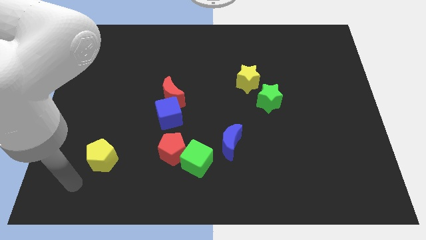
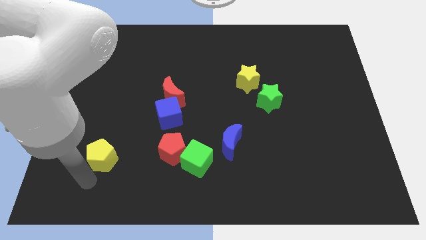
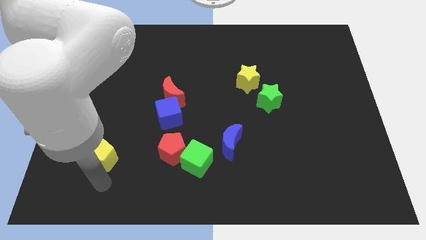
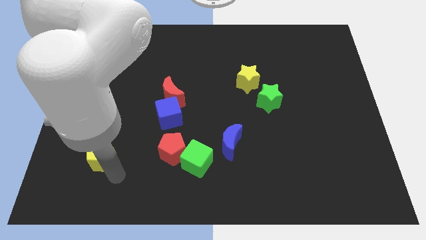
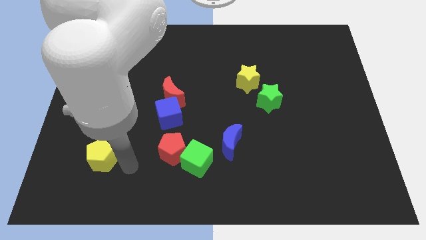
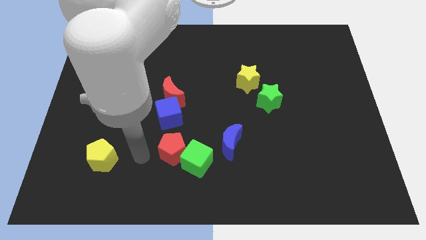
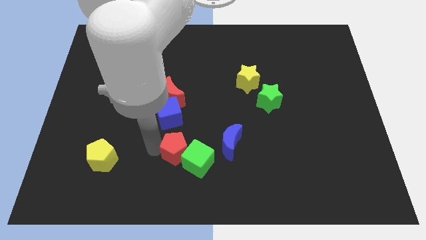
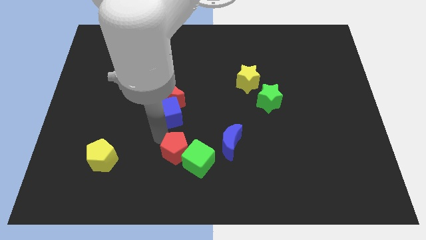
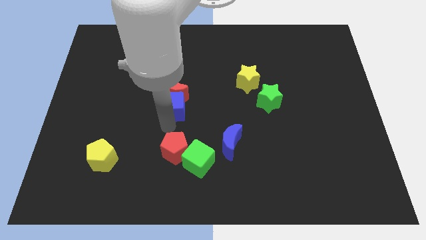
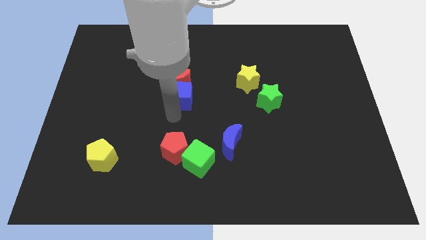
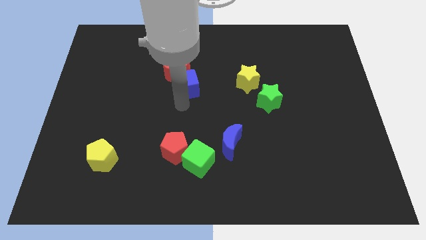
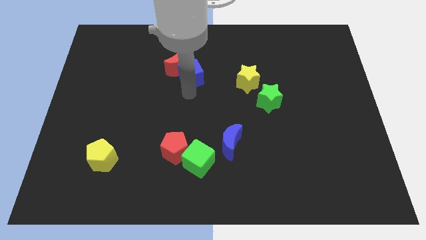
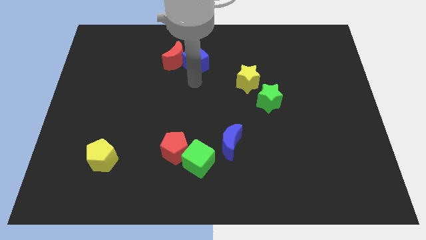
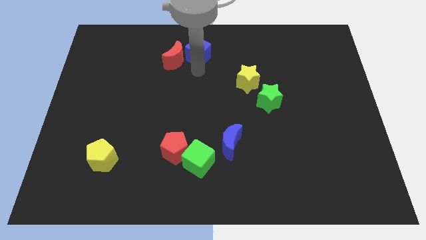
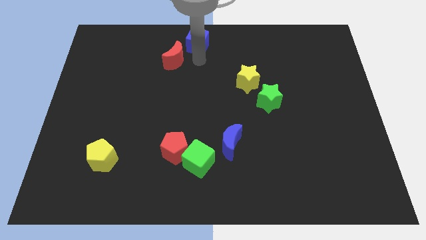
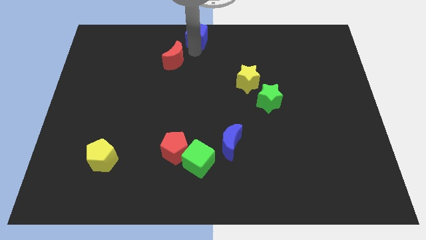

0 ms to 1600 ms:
pull the red moon apart from the blue cube

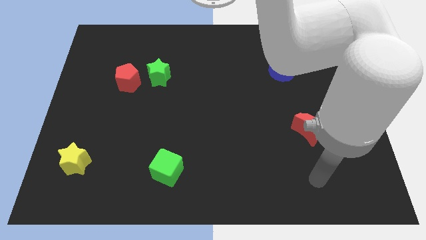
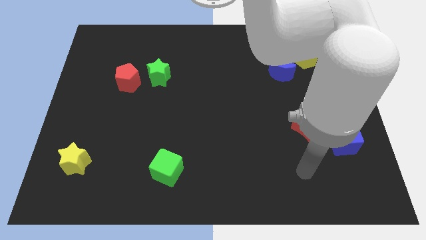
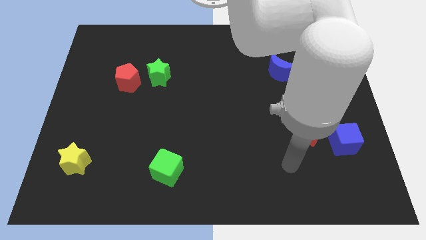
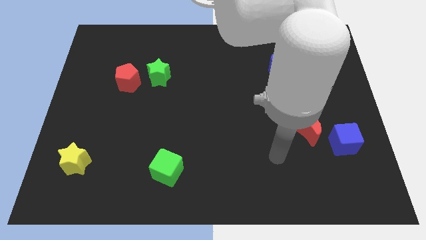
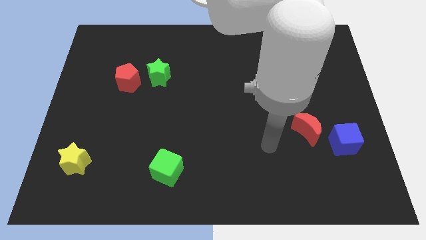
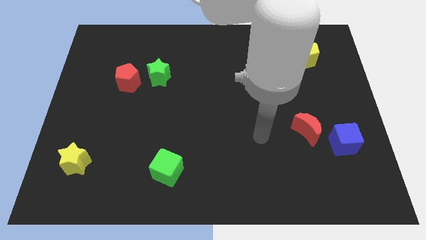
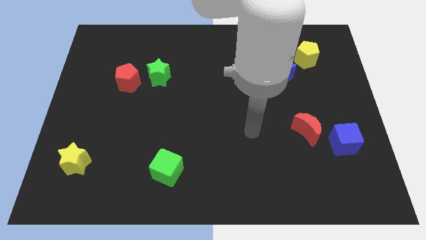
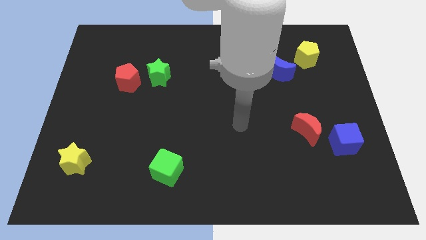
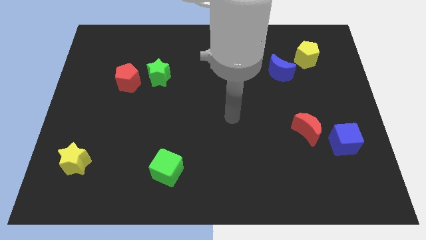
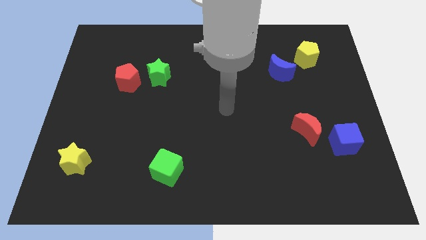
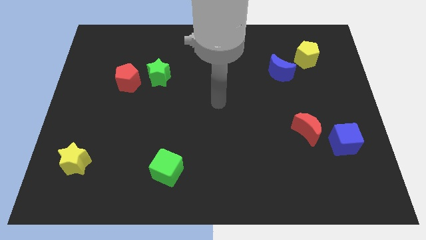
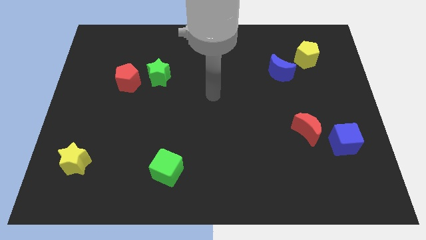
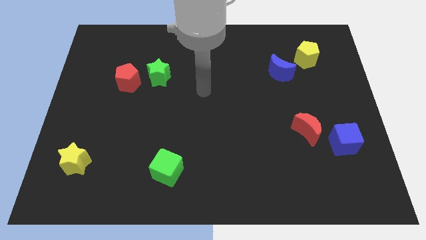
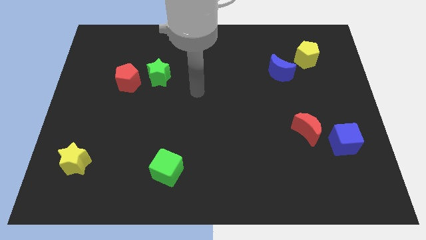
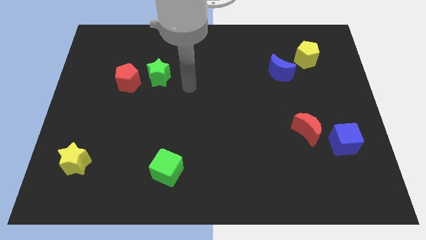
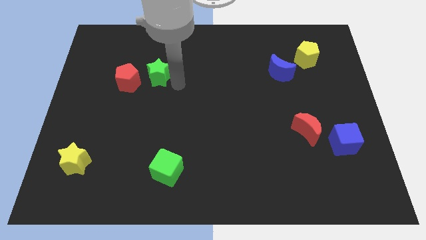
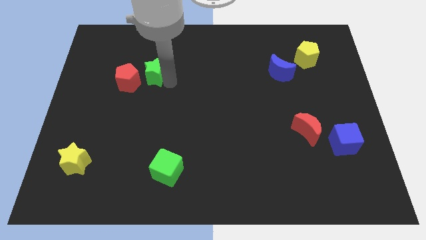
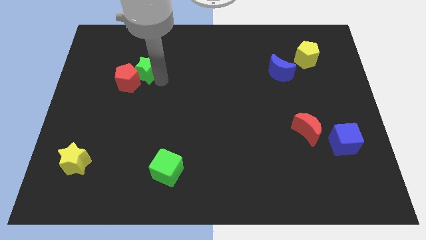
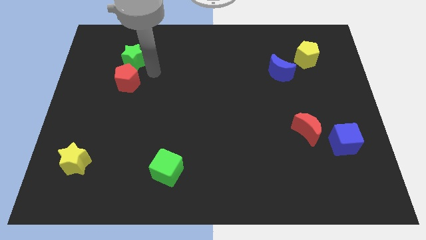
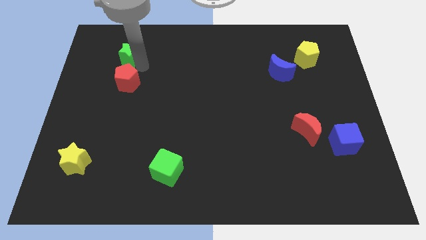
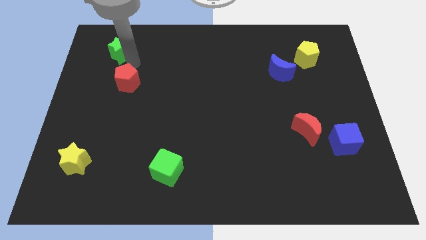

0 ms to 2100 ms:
move the red pentagon away from the green star

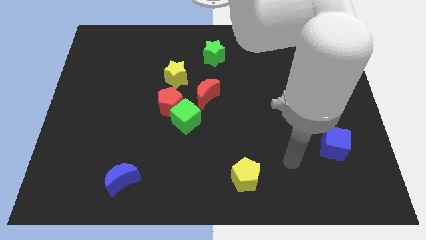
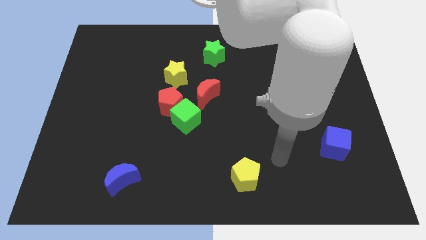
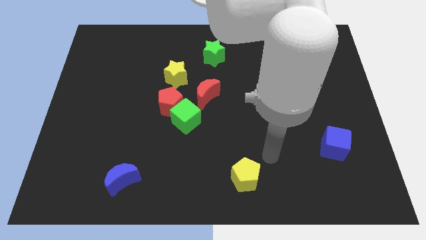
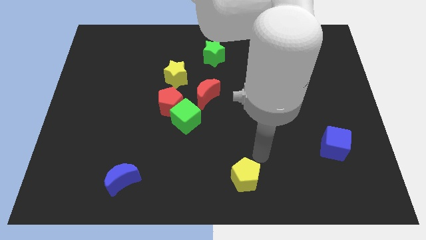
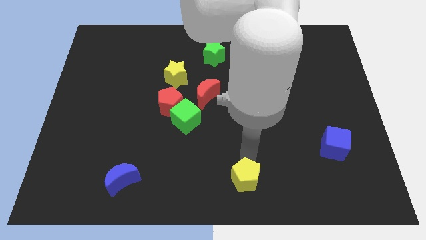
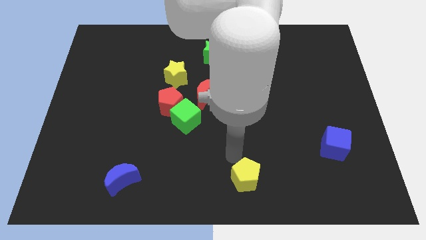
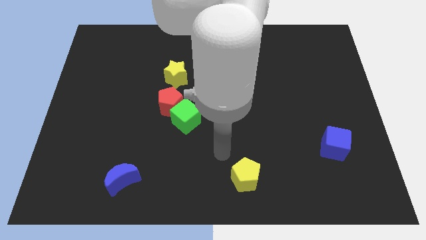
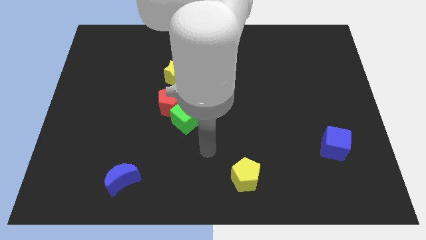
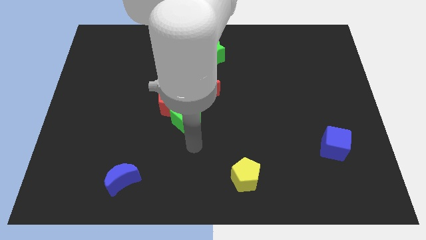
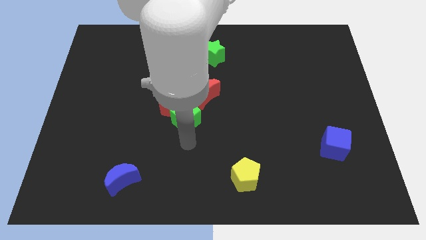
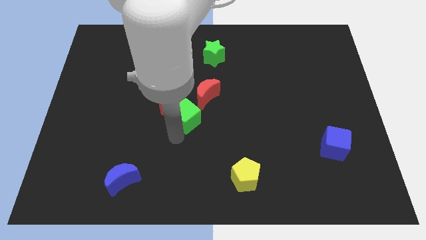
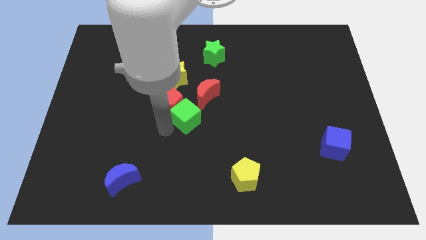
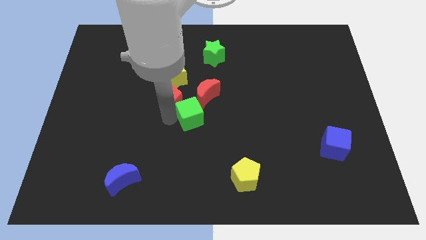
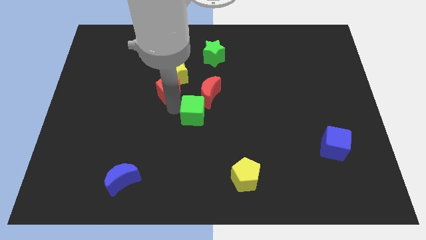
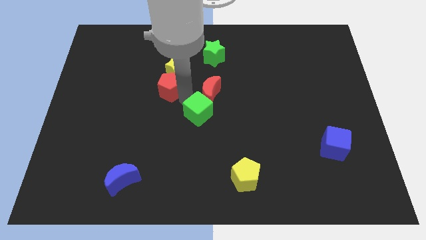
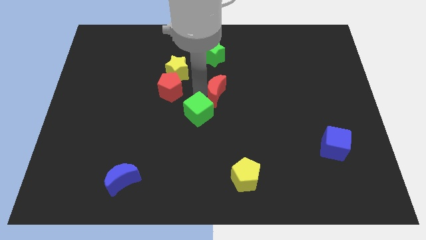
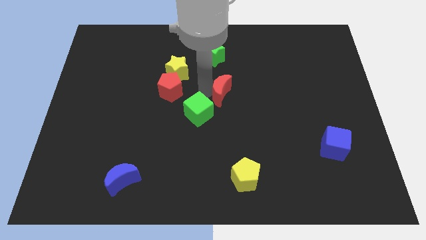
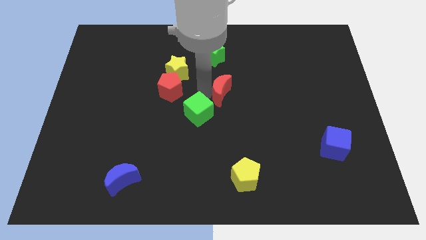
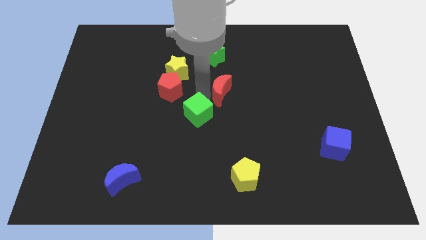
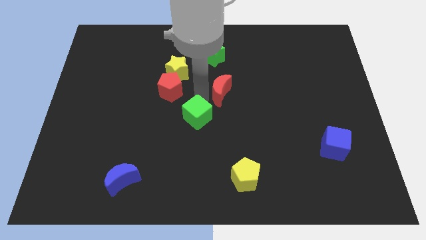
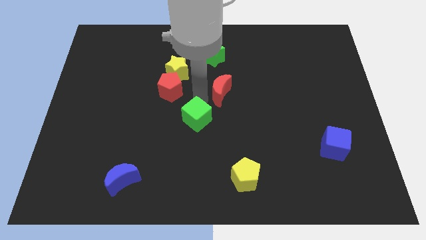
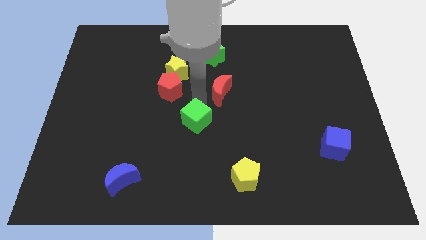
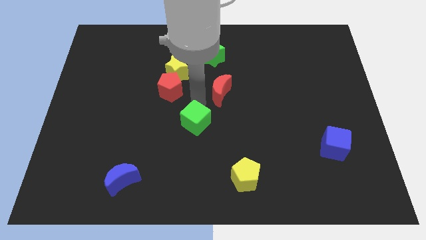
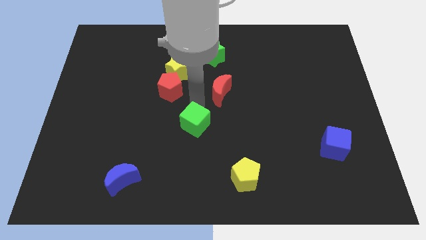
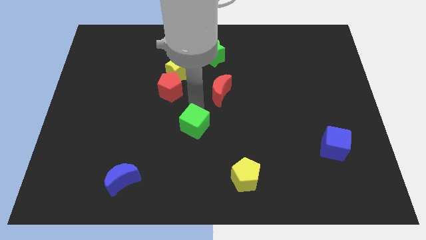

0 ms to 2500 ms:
move the green cube away from the red pentagon and red moon

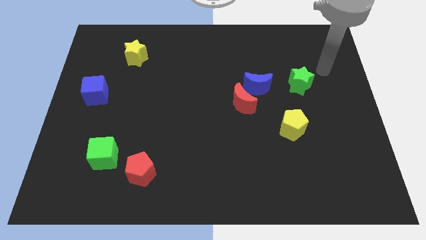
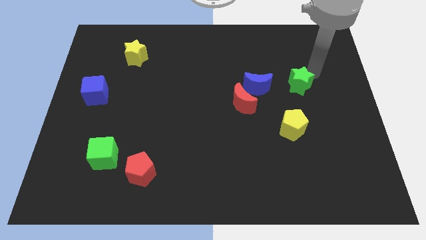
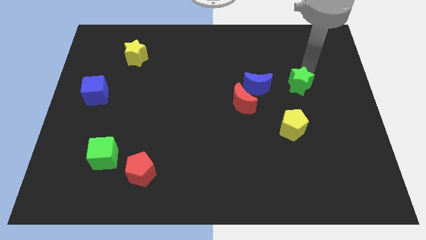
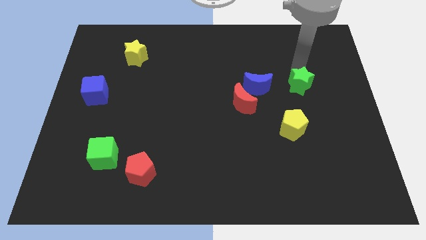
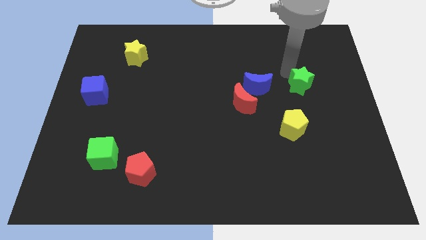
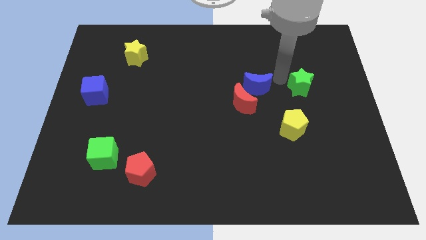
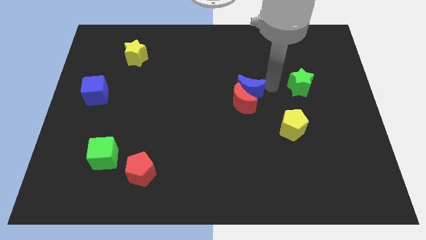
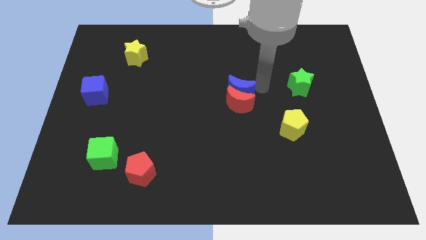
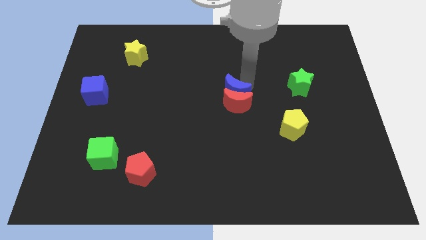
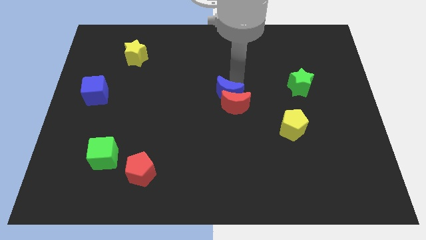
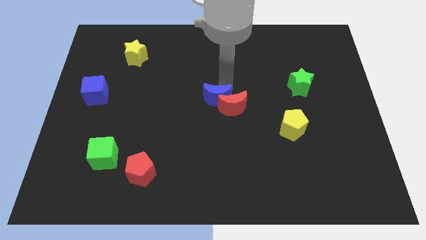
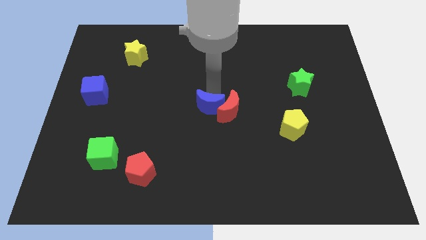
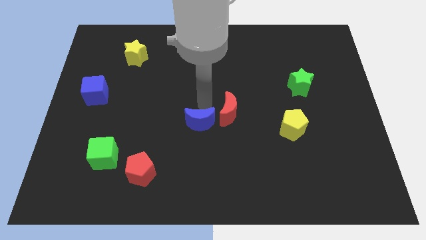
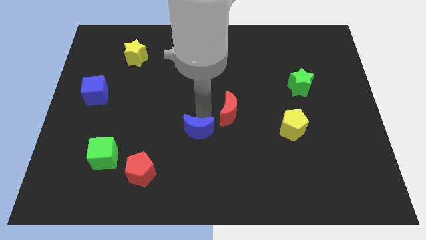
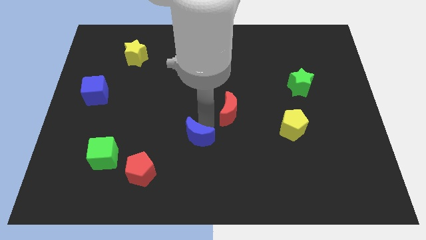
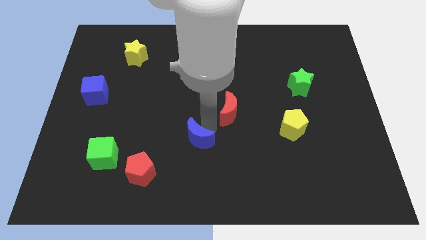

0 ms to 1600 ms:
separate the red moon from the blue moon

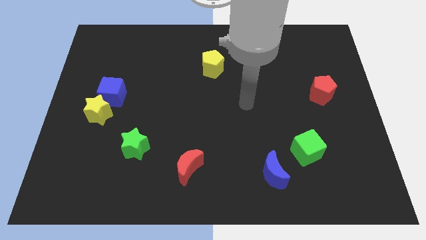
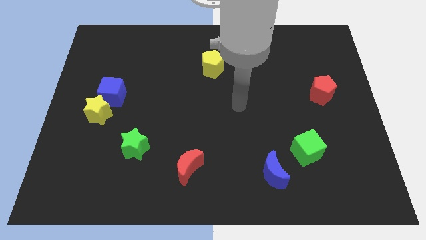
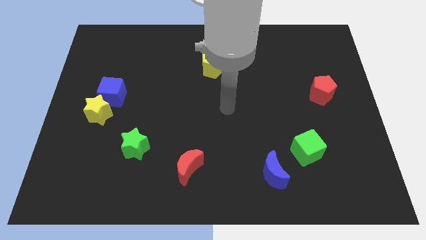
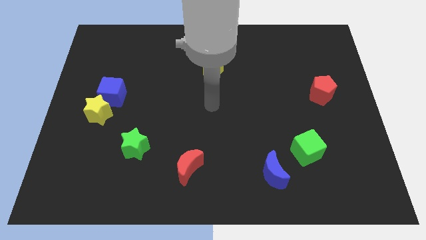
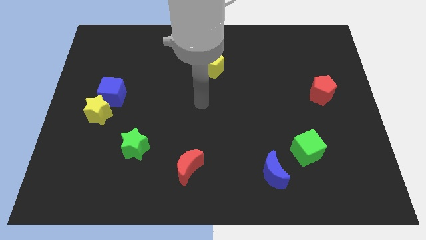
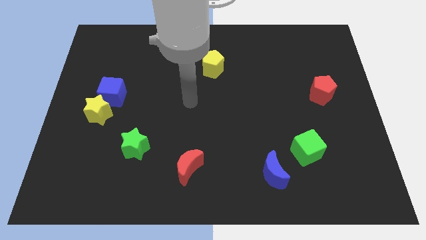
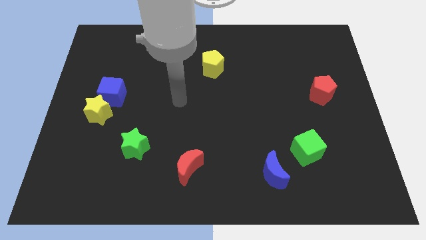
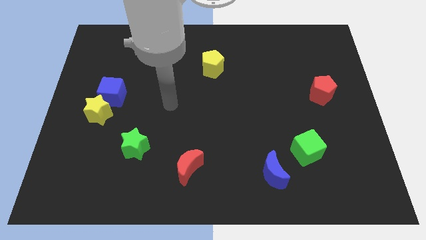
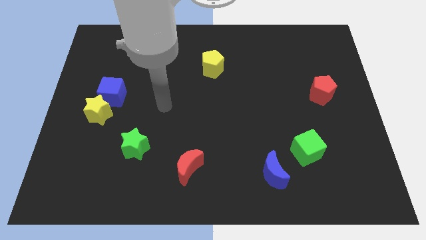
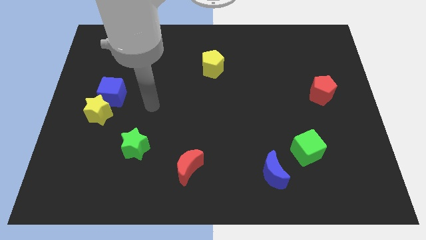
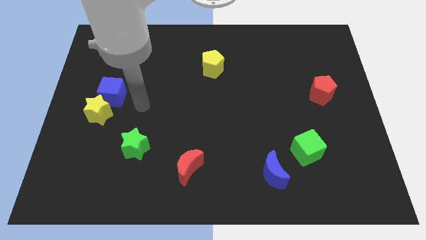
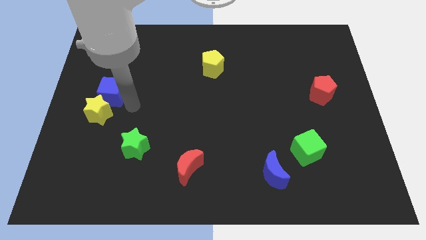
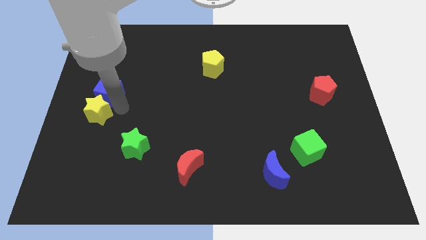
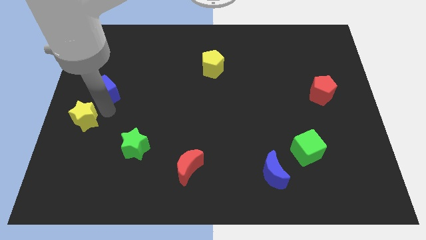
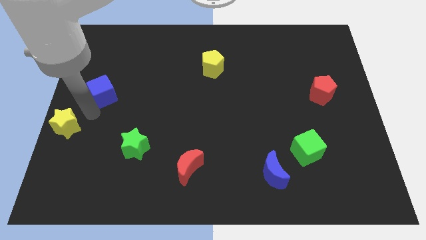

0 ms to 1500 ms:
separate the blue cube from the yellow star

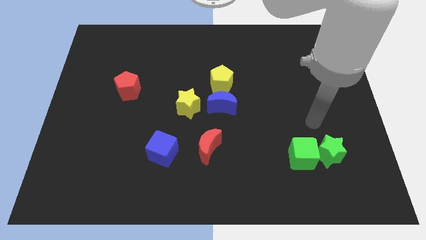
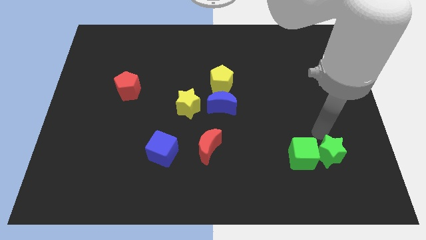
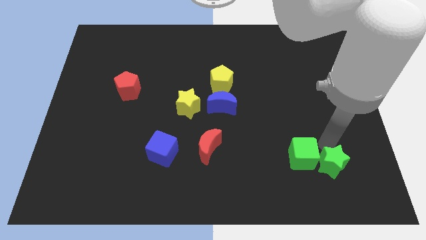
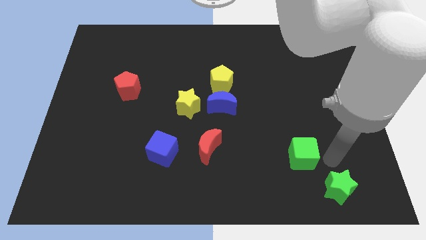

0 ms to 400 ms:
pull the green cube apart from the green star
